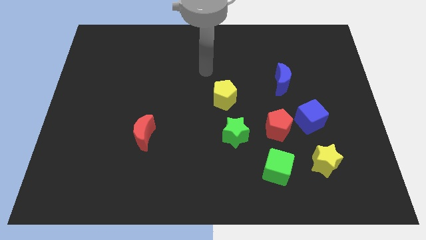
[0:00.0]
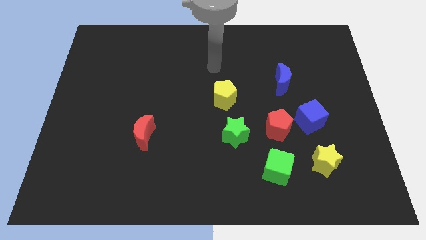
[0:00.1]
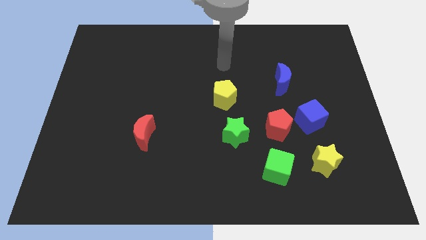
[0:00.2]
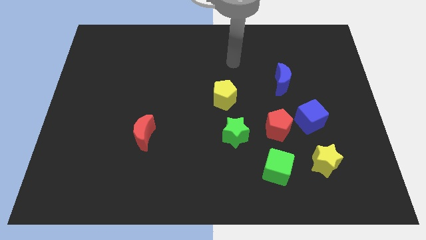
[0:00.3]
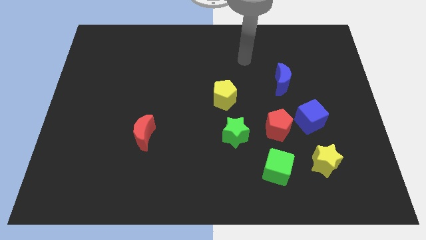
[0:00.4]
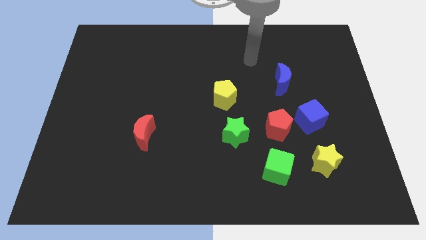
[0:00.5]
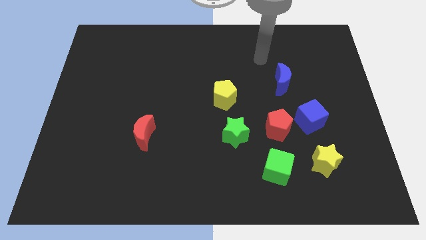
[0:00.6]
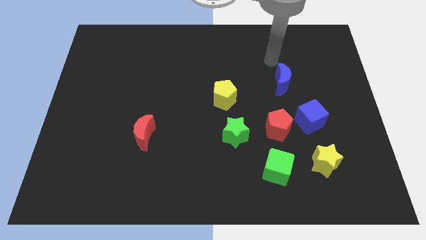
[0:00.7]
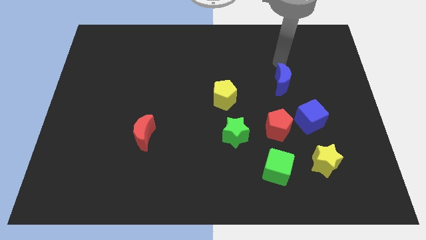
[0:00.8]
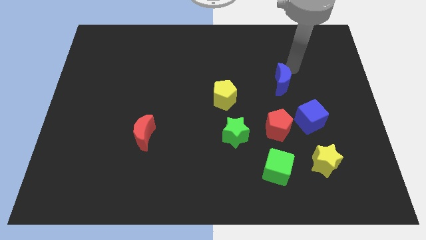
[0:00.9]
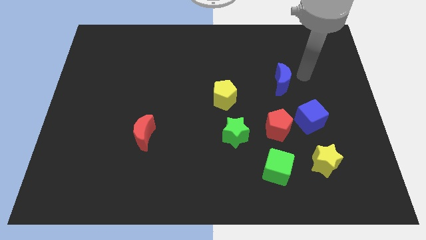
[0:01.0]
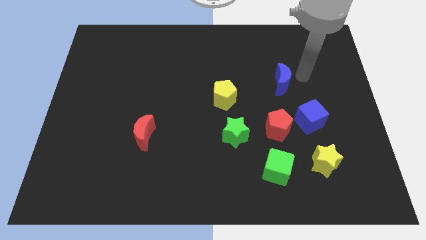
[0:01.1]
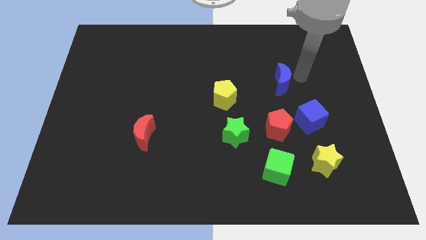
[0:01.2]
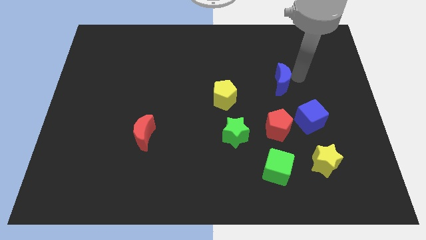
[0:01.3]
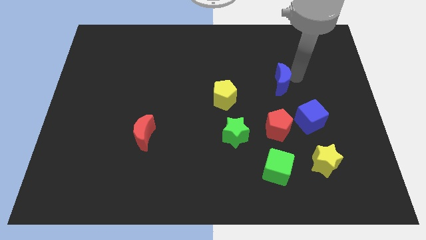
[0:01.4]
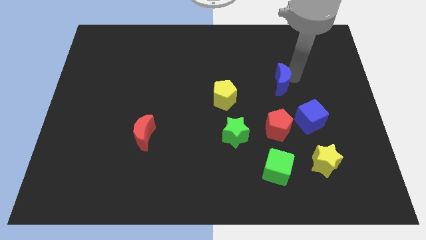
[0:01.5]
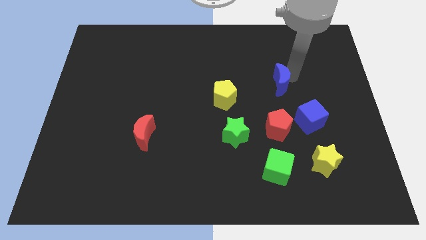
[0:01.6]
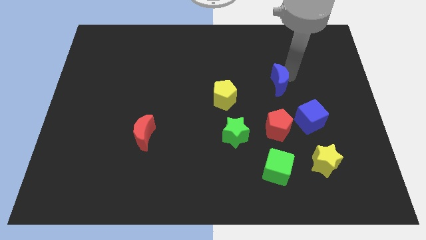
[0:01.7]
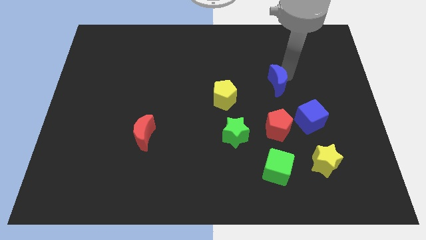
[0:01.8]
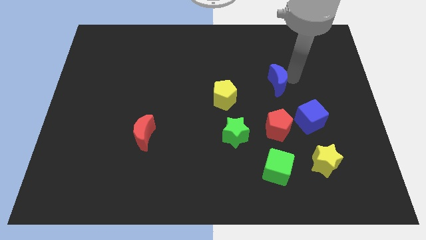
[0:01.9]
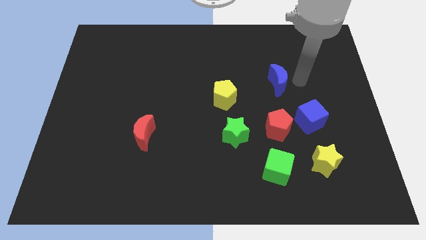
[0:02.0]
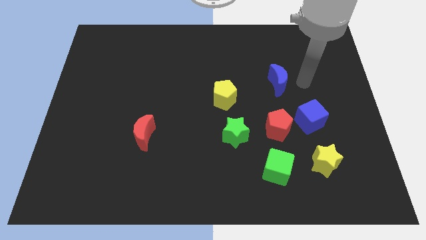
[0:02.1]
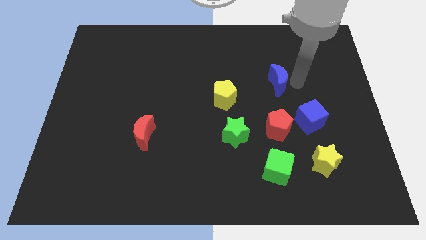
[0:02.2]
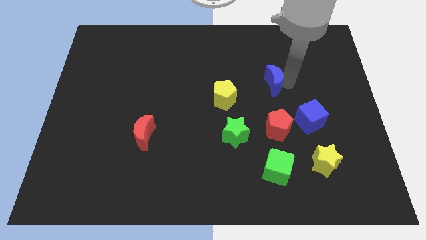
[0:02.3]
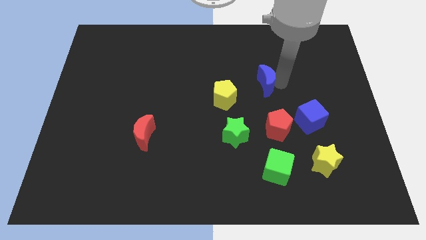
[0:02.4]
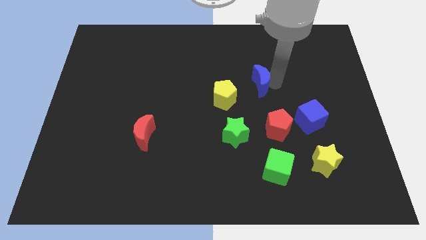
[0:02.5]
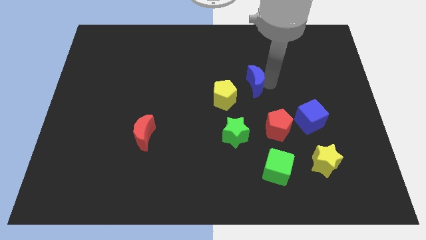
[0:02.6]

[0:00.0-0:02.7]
push the blue moon somewhat left

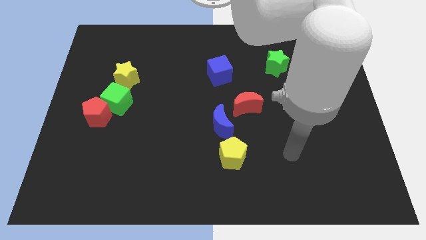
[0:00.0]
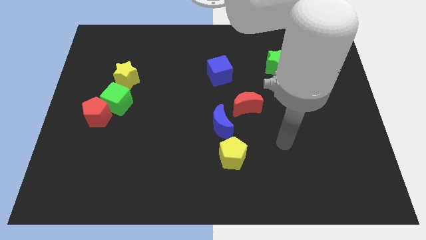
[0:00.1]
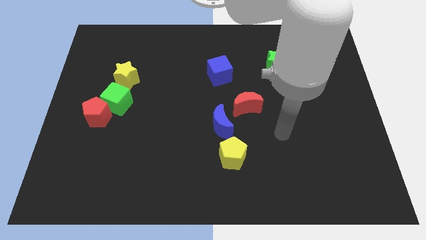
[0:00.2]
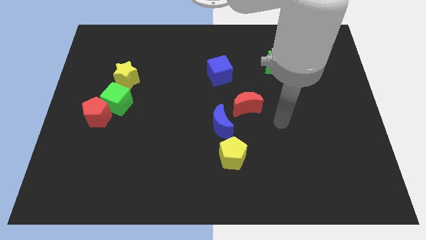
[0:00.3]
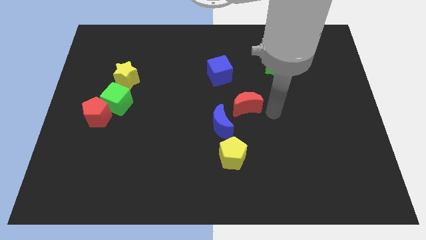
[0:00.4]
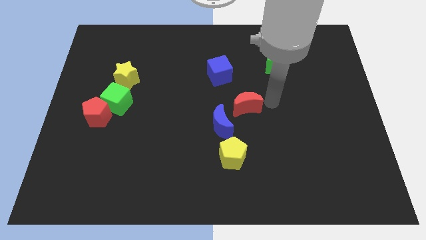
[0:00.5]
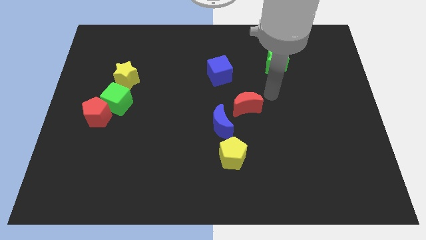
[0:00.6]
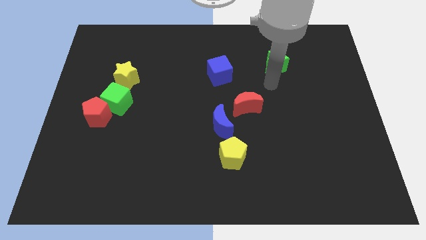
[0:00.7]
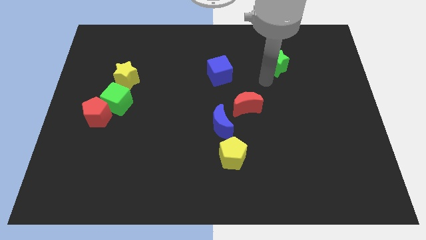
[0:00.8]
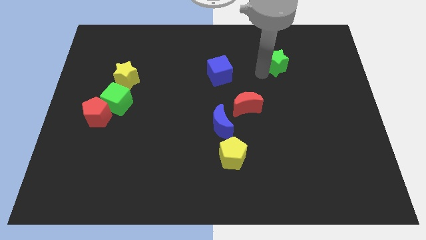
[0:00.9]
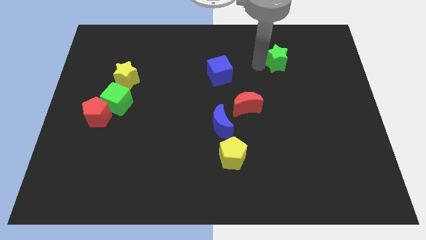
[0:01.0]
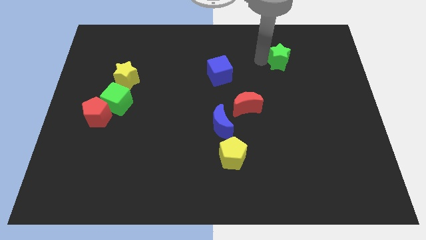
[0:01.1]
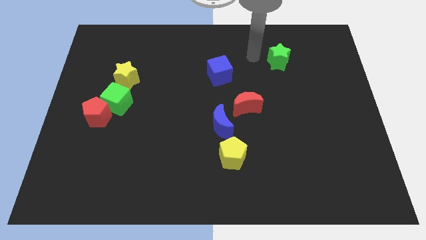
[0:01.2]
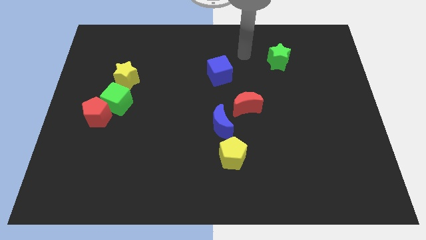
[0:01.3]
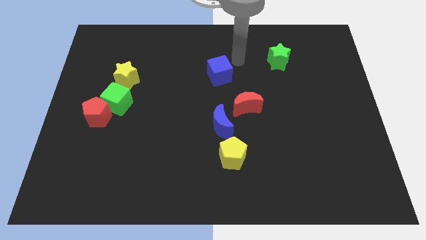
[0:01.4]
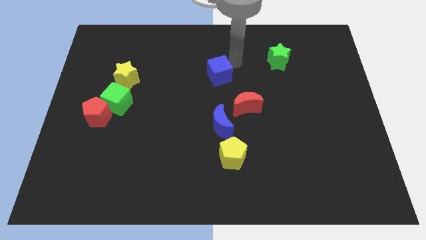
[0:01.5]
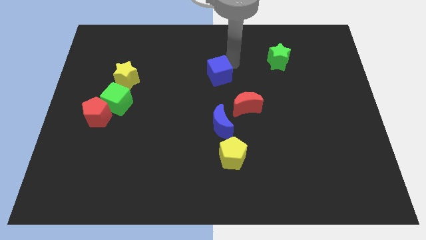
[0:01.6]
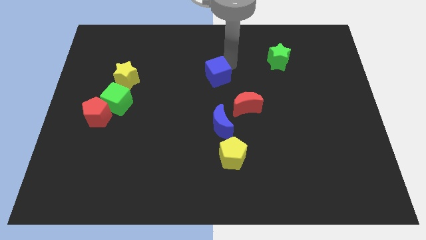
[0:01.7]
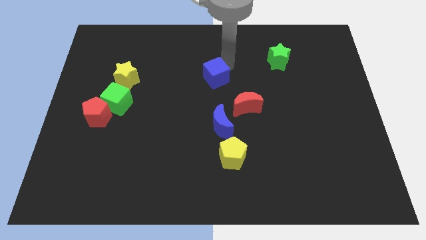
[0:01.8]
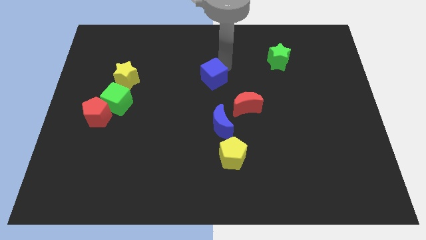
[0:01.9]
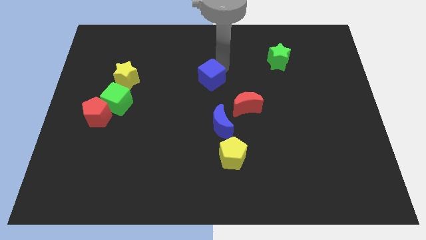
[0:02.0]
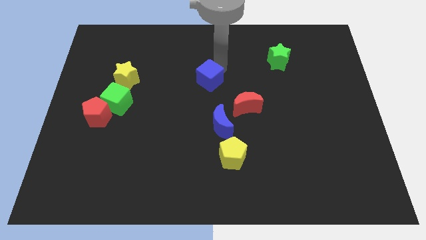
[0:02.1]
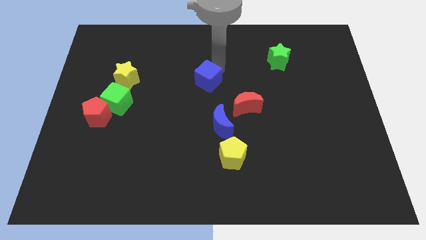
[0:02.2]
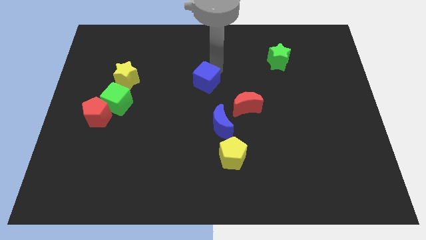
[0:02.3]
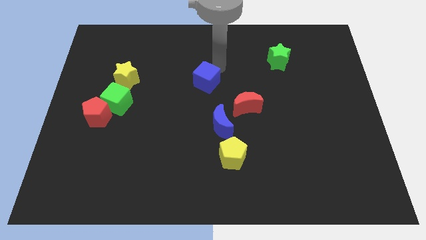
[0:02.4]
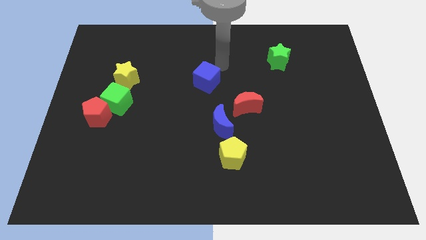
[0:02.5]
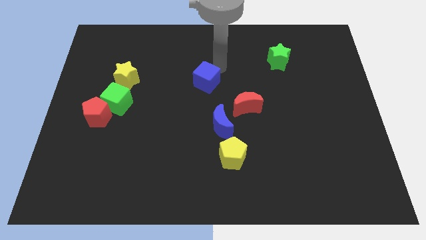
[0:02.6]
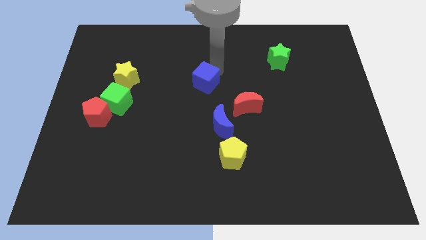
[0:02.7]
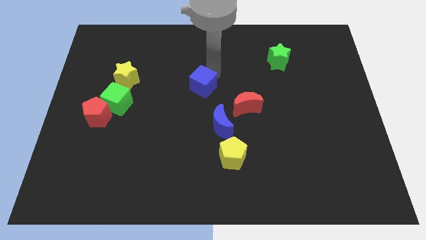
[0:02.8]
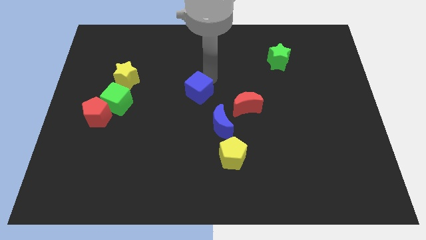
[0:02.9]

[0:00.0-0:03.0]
move the blue cube diagonally downwards and to the left a bit

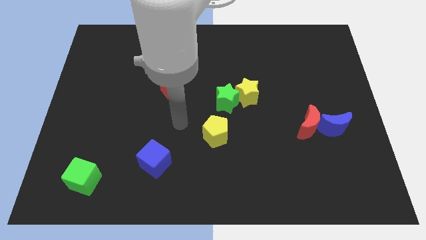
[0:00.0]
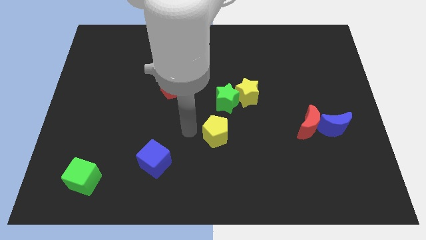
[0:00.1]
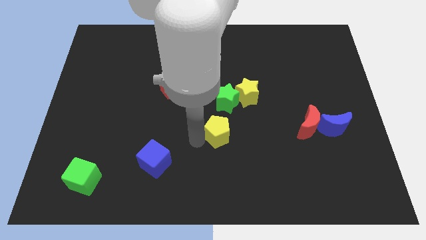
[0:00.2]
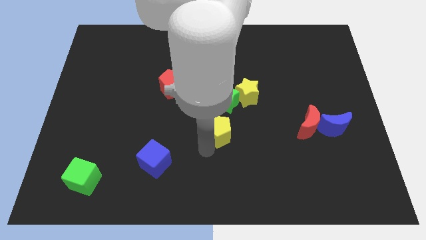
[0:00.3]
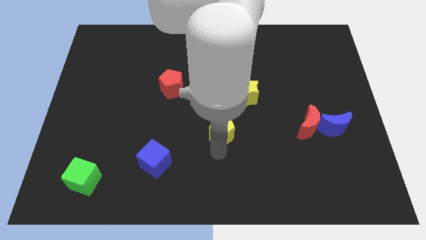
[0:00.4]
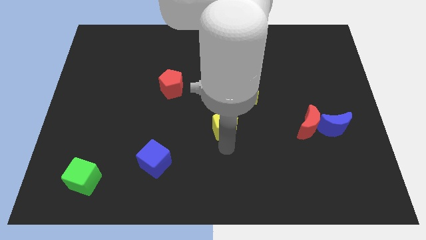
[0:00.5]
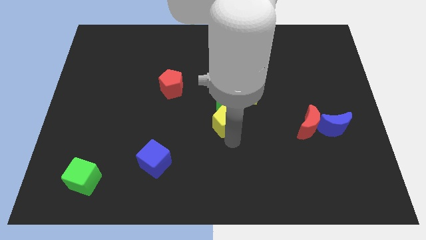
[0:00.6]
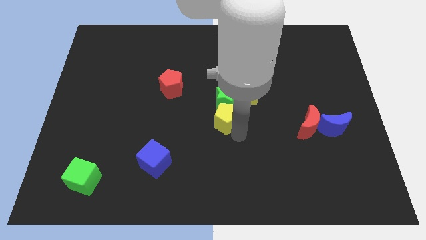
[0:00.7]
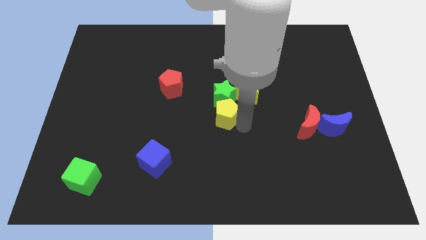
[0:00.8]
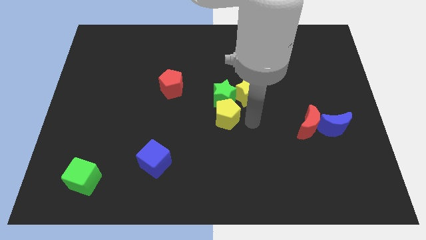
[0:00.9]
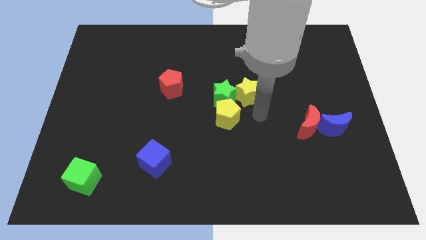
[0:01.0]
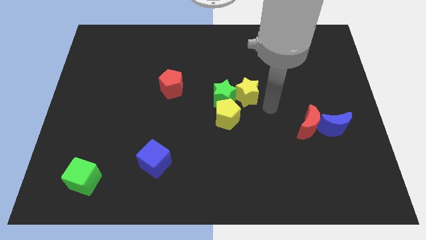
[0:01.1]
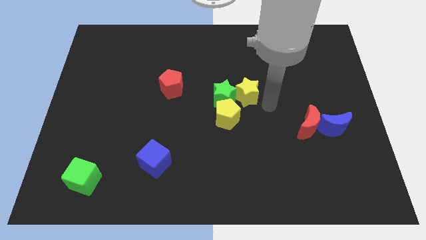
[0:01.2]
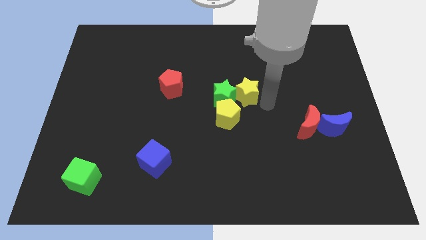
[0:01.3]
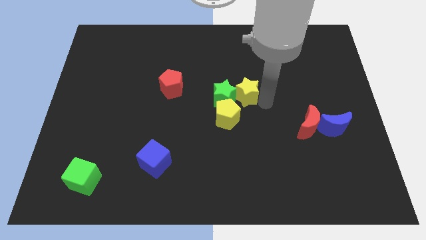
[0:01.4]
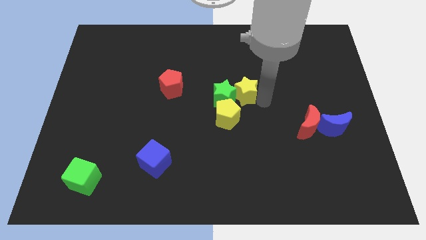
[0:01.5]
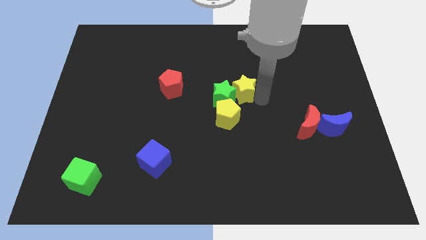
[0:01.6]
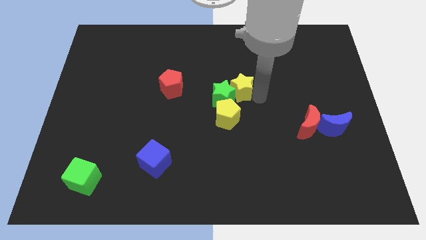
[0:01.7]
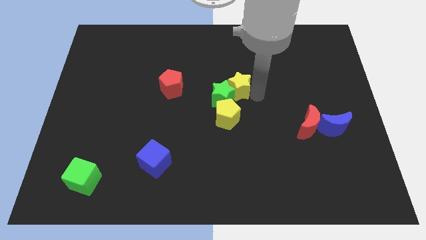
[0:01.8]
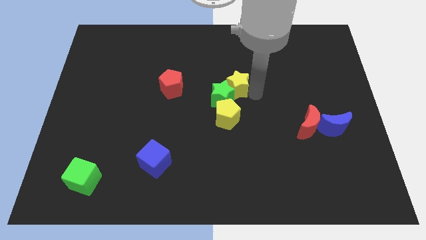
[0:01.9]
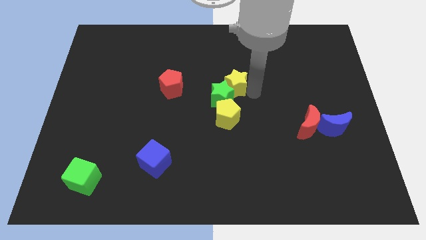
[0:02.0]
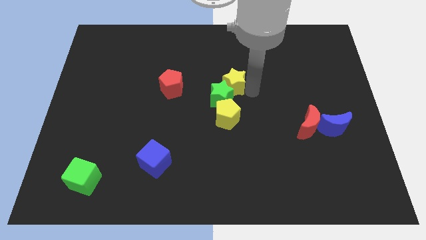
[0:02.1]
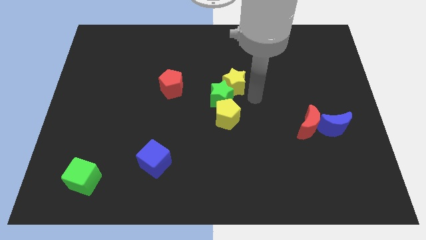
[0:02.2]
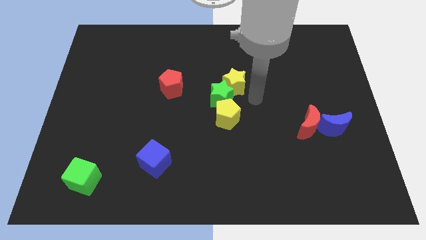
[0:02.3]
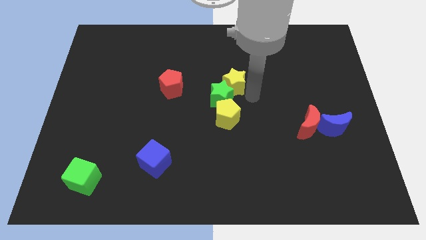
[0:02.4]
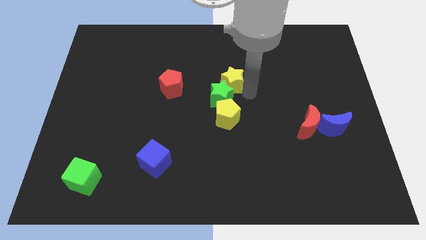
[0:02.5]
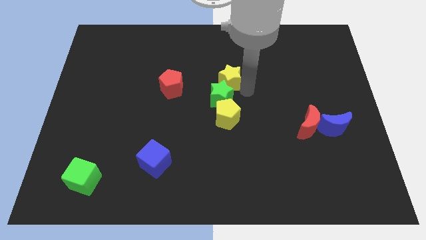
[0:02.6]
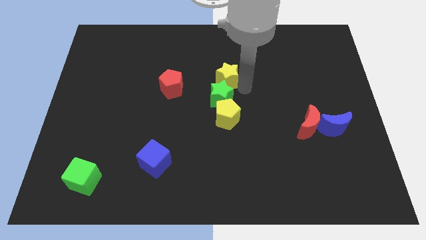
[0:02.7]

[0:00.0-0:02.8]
move the yellow star up and left slightly
